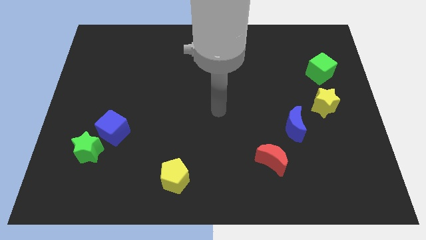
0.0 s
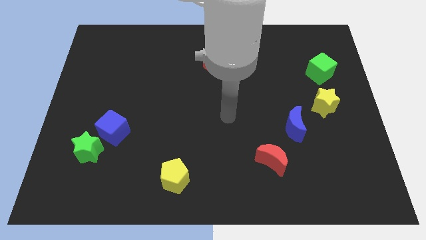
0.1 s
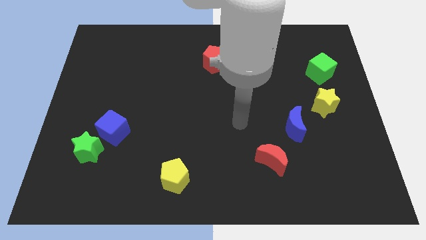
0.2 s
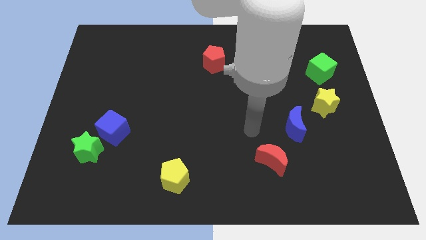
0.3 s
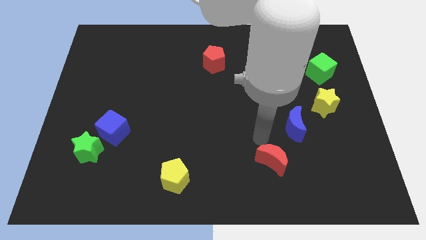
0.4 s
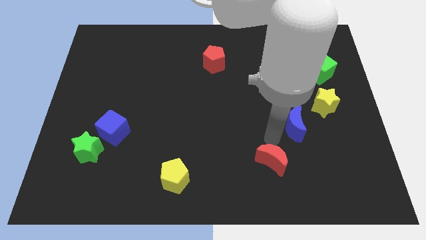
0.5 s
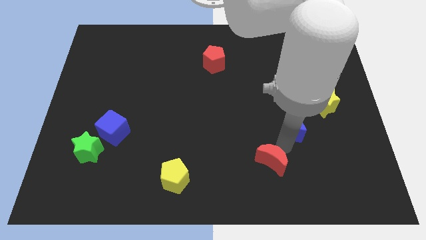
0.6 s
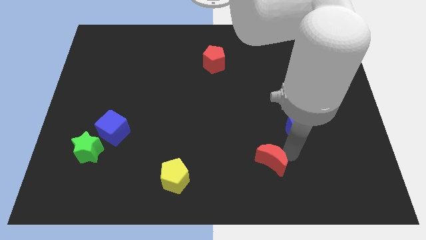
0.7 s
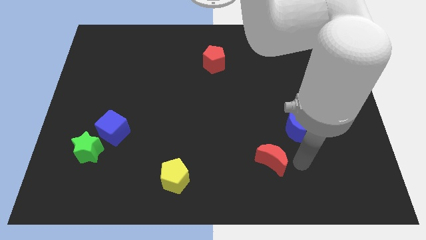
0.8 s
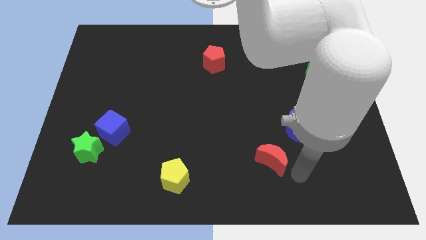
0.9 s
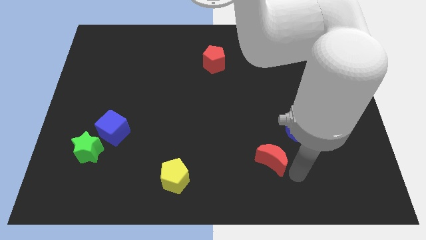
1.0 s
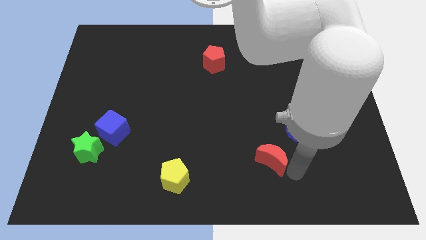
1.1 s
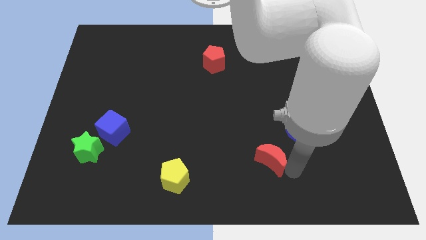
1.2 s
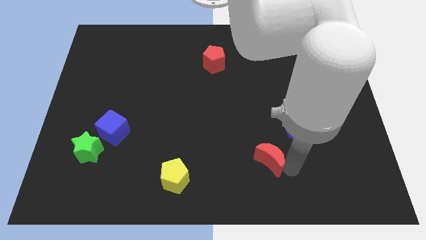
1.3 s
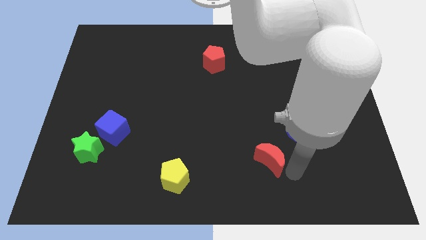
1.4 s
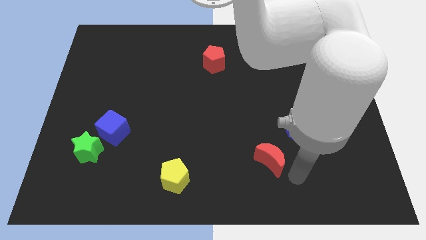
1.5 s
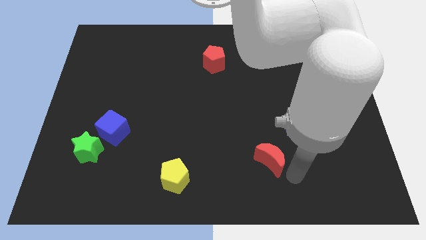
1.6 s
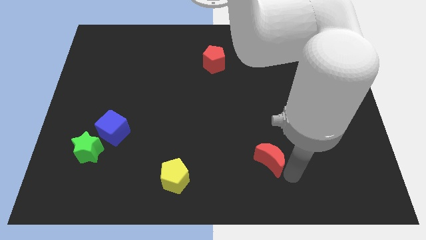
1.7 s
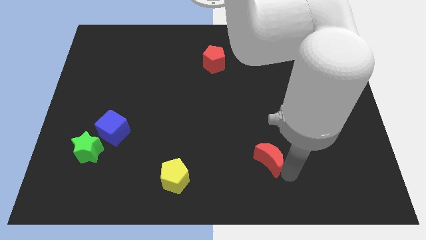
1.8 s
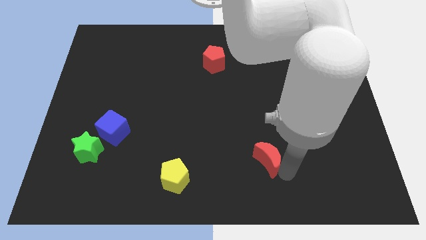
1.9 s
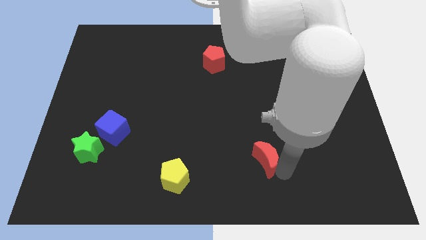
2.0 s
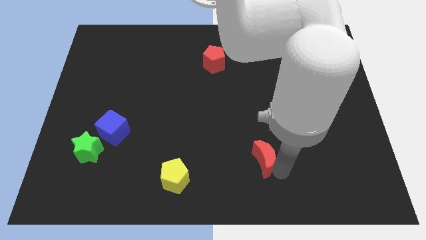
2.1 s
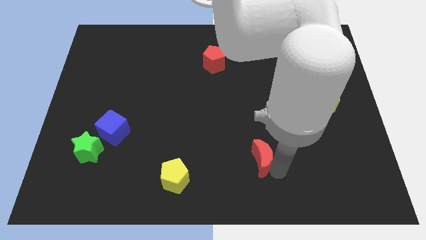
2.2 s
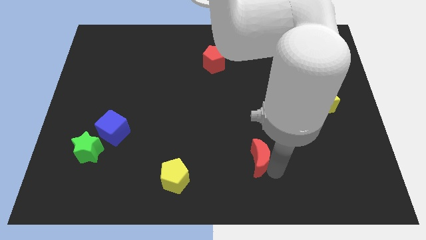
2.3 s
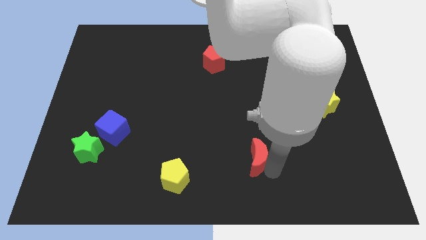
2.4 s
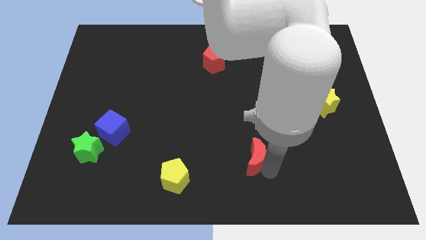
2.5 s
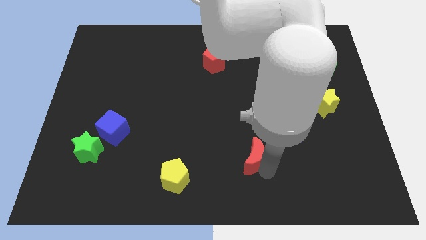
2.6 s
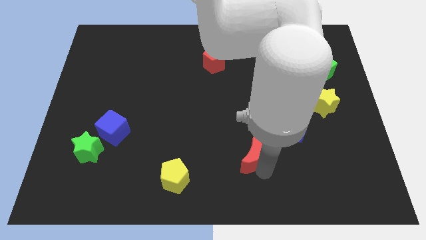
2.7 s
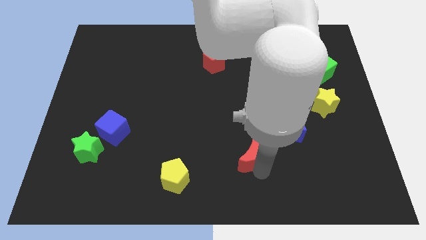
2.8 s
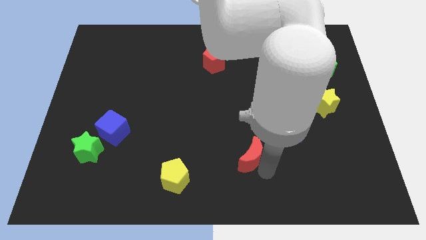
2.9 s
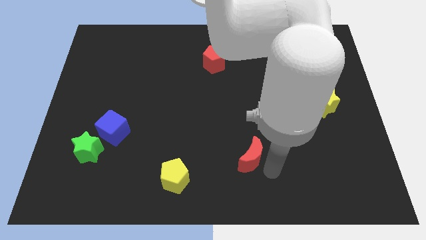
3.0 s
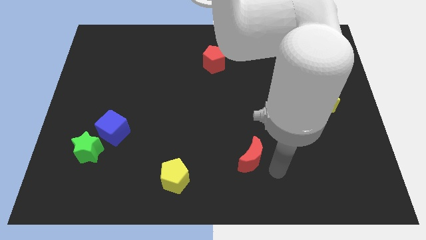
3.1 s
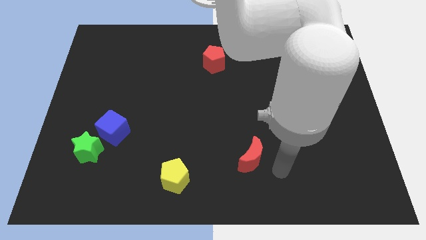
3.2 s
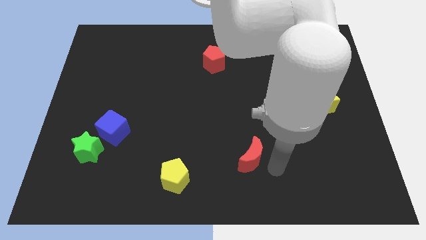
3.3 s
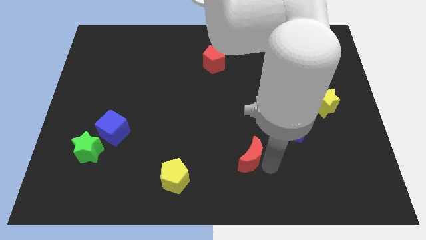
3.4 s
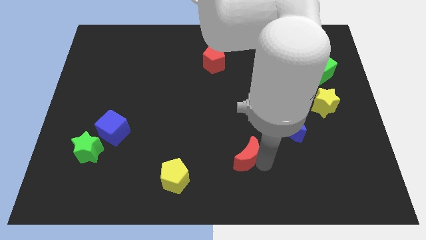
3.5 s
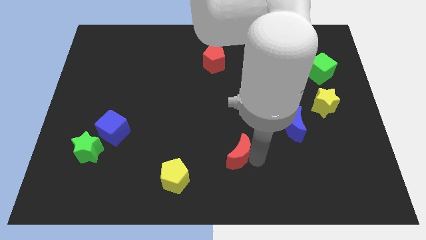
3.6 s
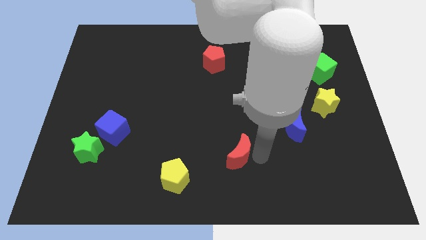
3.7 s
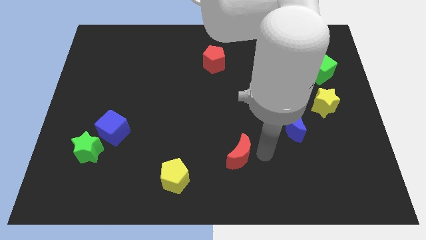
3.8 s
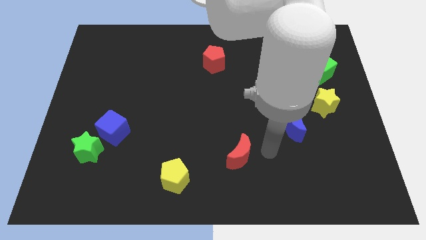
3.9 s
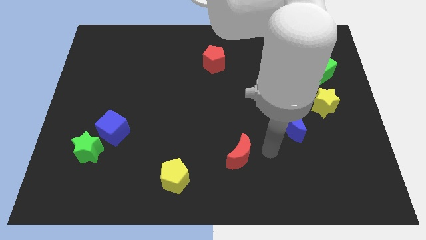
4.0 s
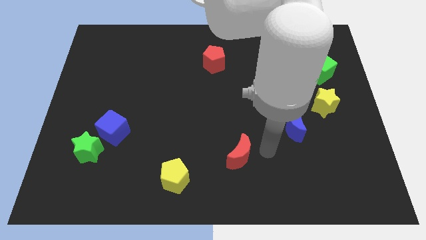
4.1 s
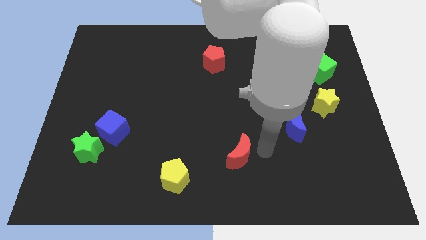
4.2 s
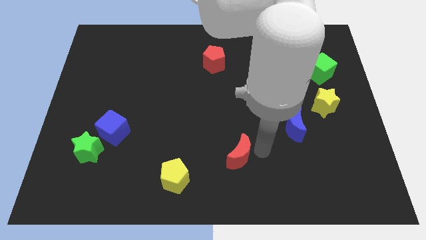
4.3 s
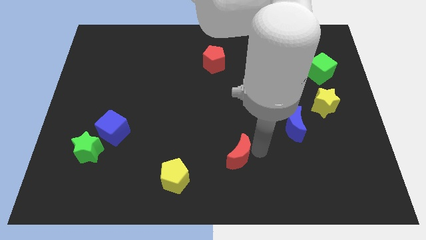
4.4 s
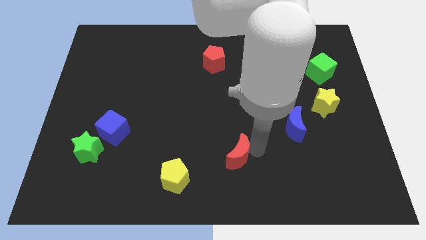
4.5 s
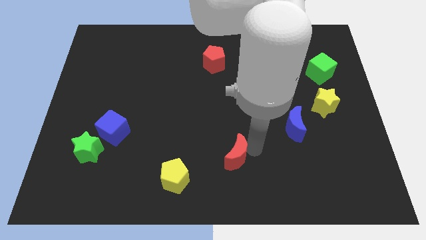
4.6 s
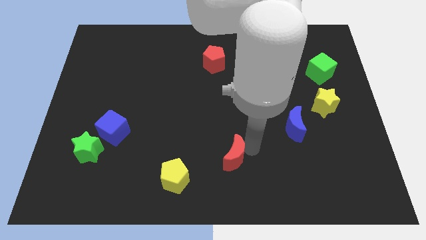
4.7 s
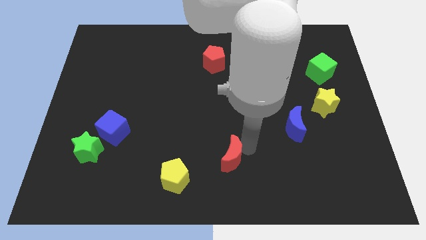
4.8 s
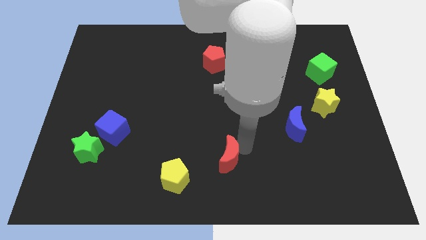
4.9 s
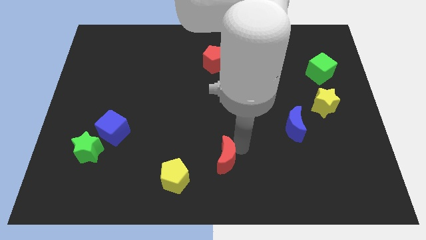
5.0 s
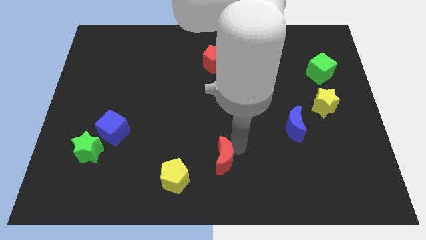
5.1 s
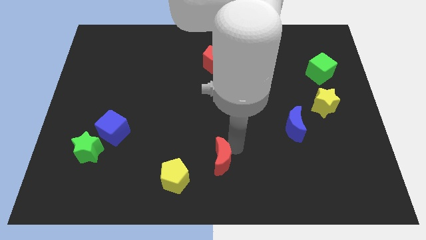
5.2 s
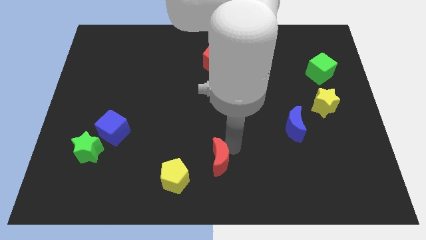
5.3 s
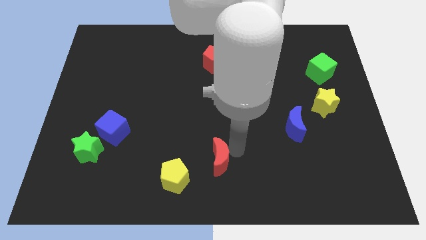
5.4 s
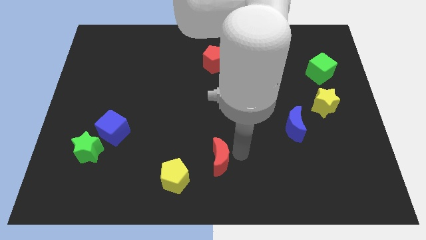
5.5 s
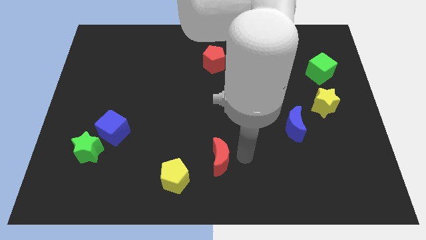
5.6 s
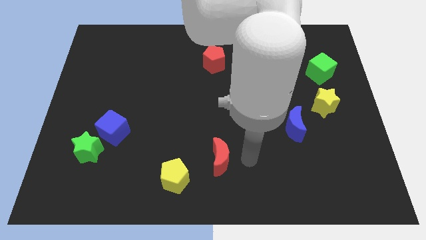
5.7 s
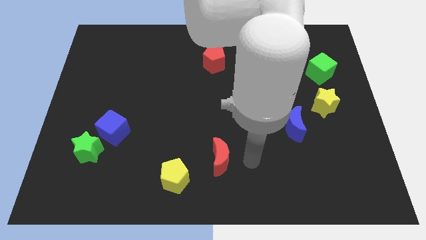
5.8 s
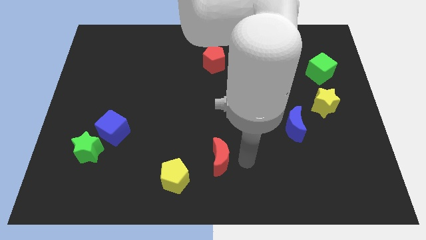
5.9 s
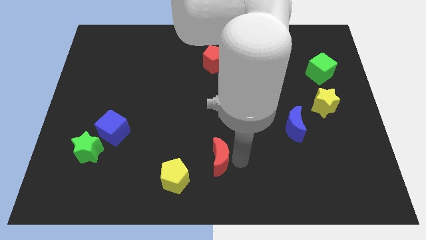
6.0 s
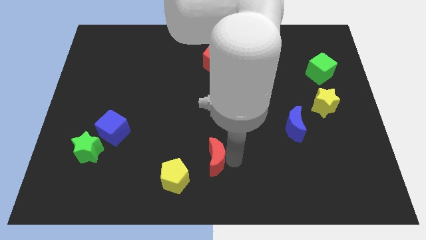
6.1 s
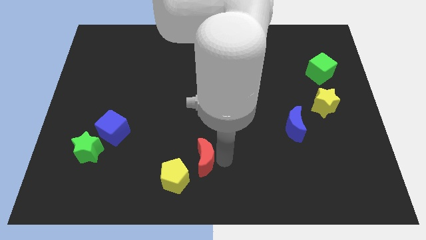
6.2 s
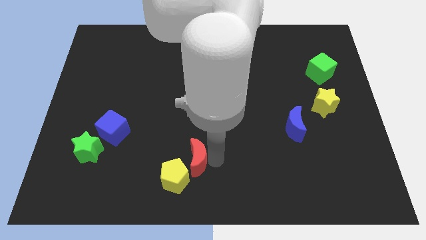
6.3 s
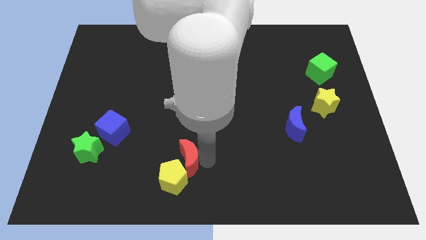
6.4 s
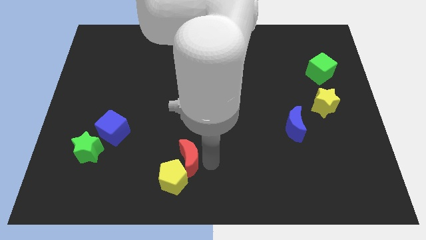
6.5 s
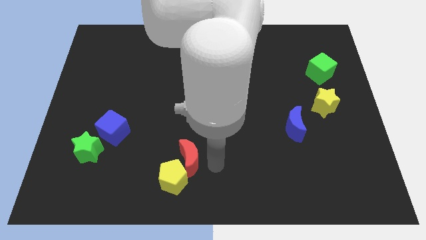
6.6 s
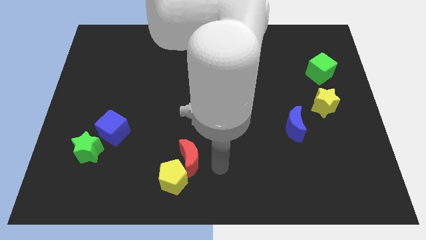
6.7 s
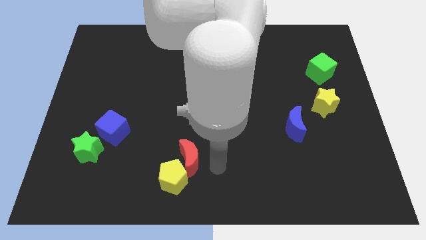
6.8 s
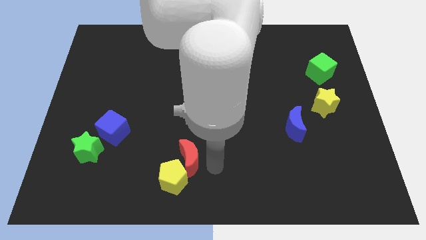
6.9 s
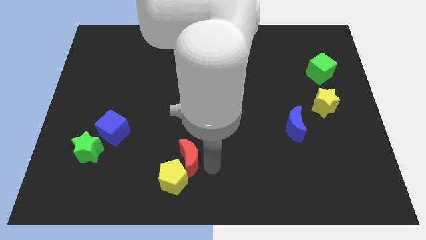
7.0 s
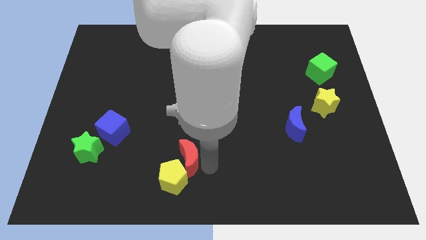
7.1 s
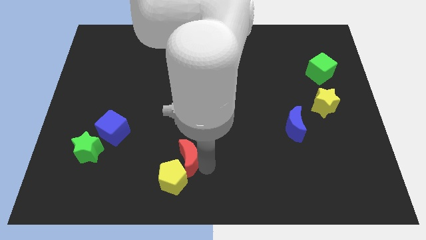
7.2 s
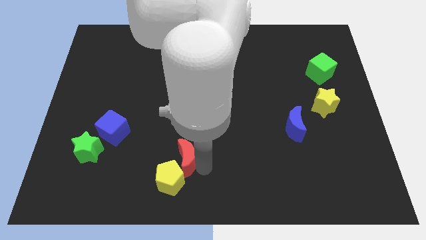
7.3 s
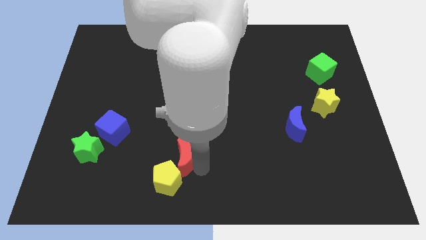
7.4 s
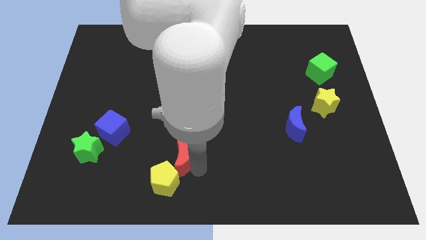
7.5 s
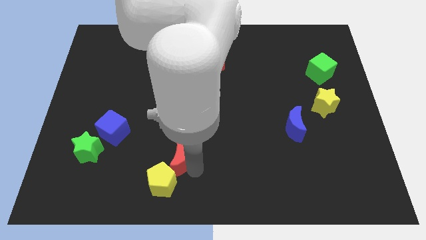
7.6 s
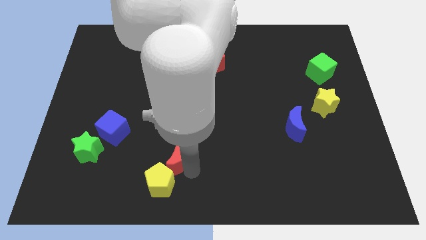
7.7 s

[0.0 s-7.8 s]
slide the red moon to the left

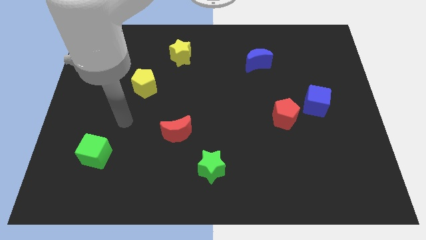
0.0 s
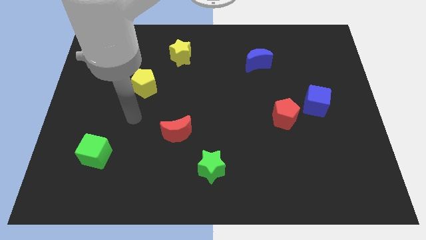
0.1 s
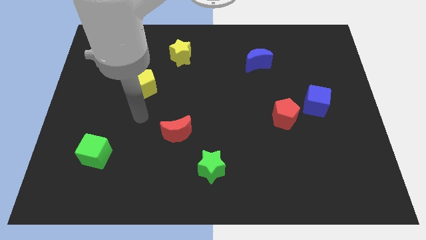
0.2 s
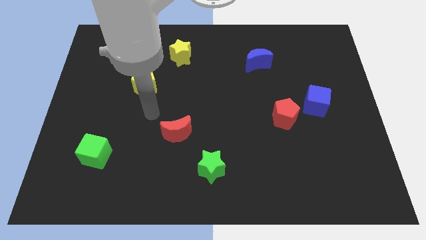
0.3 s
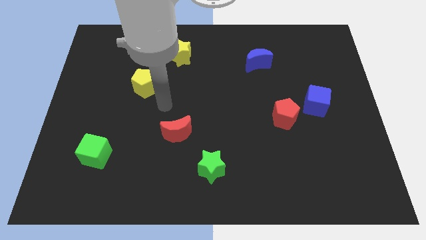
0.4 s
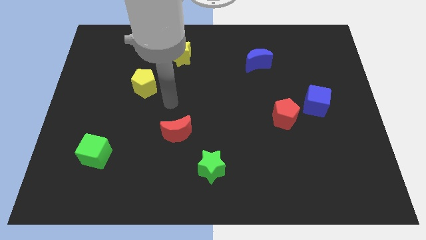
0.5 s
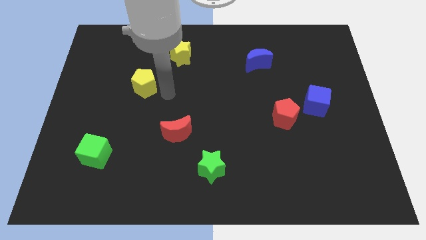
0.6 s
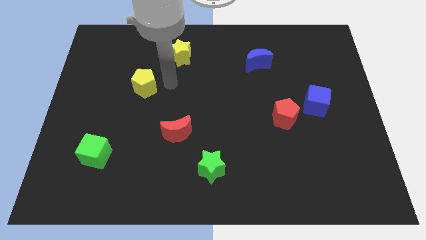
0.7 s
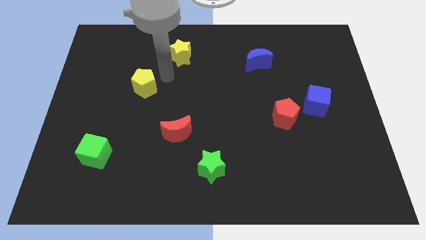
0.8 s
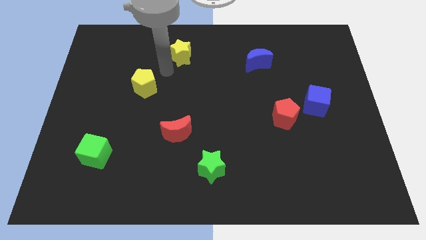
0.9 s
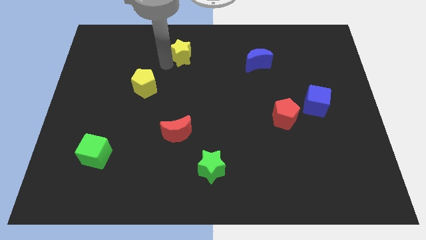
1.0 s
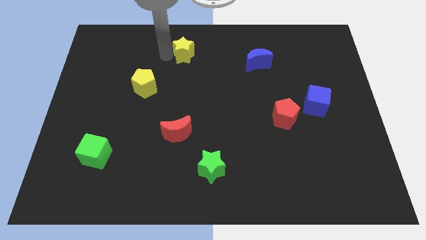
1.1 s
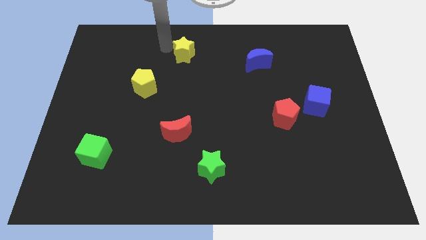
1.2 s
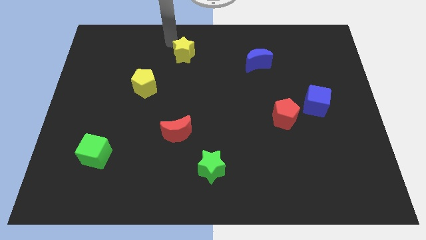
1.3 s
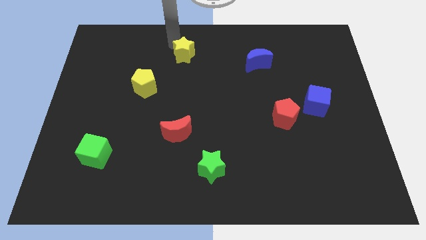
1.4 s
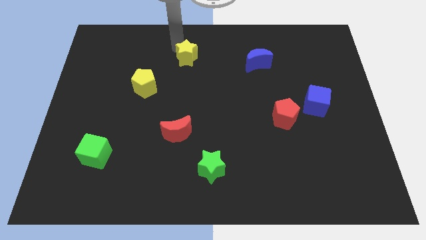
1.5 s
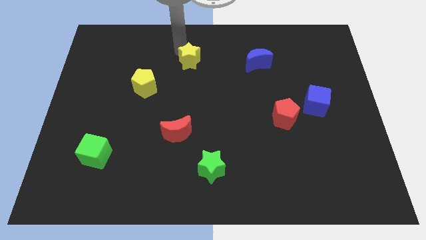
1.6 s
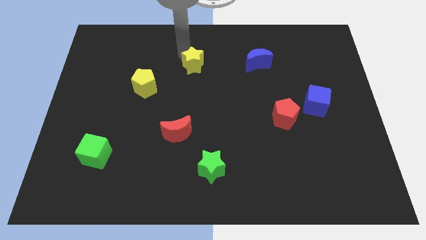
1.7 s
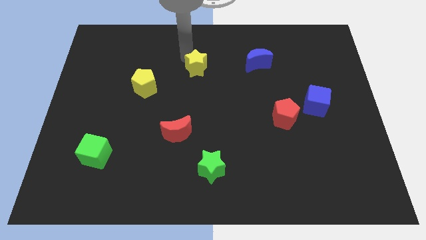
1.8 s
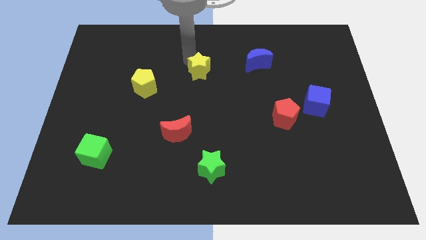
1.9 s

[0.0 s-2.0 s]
slightly move the yellow star downwards and right diagonally
